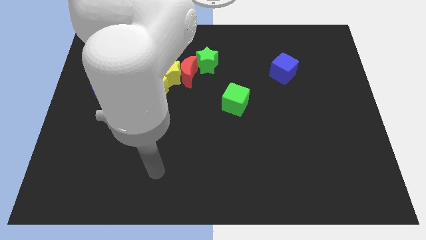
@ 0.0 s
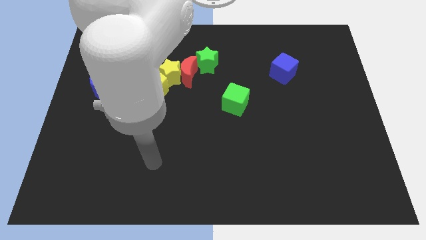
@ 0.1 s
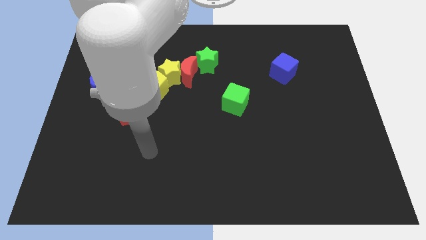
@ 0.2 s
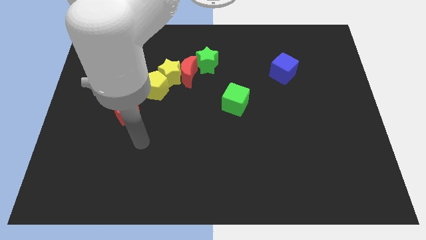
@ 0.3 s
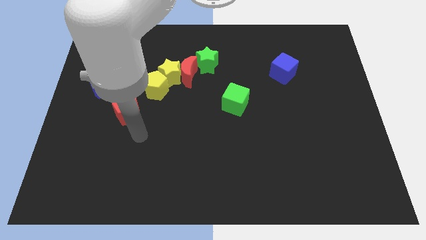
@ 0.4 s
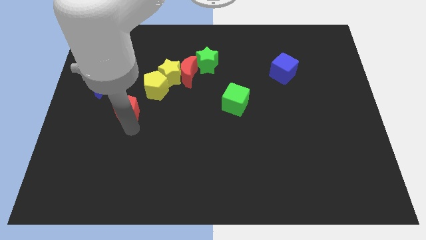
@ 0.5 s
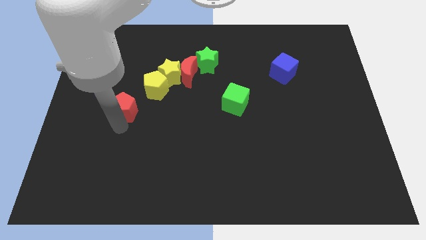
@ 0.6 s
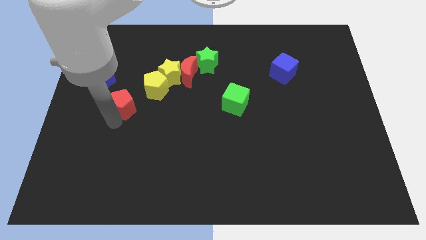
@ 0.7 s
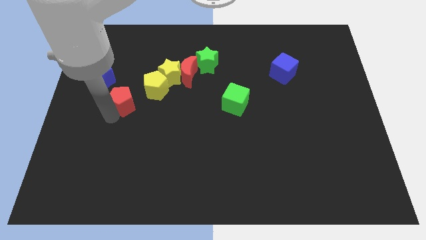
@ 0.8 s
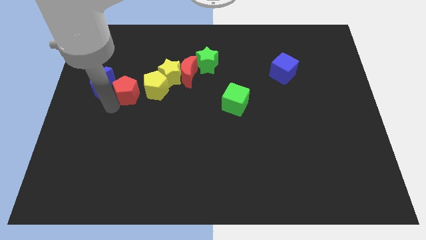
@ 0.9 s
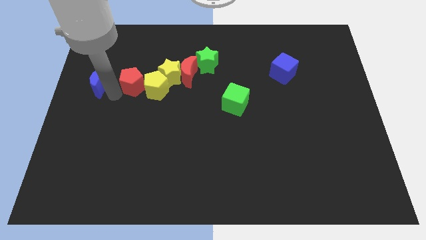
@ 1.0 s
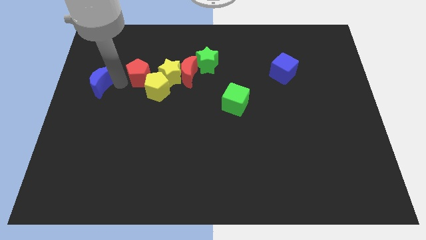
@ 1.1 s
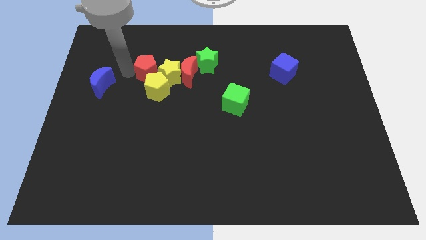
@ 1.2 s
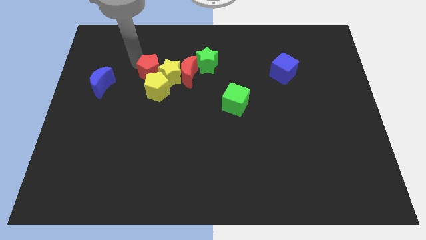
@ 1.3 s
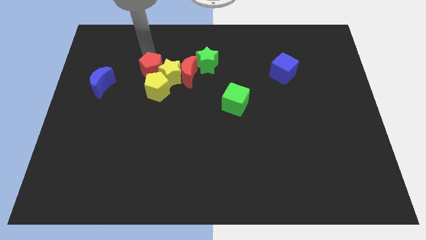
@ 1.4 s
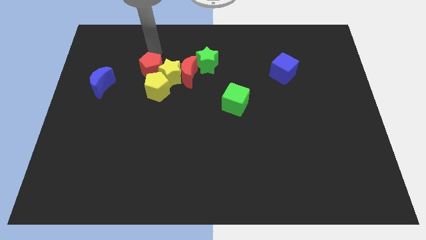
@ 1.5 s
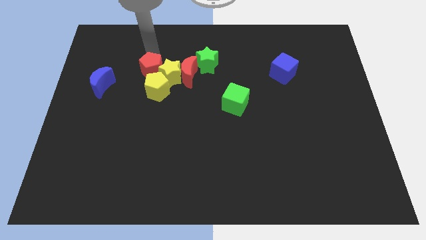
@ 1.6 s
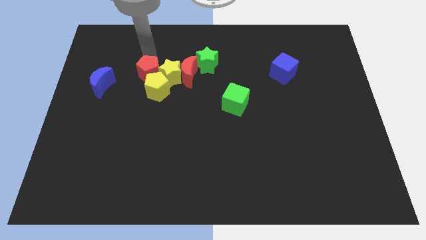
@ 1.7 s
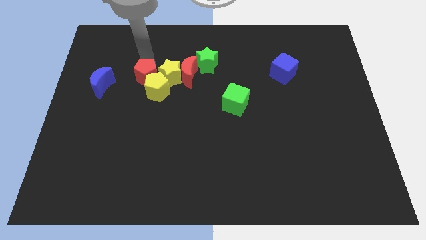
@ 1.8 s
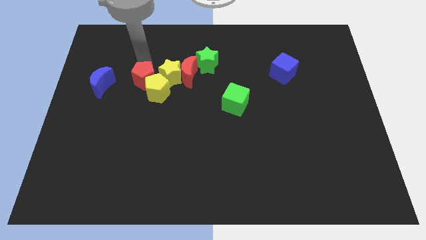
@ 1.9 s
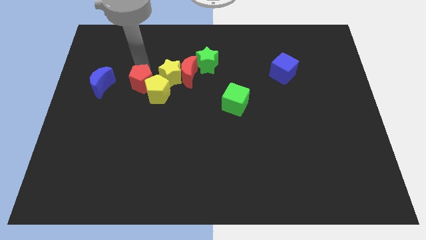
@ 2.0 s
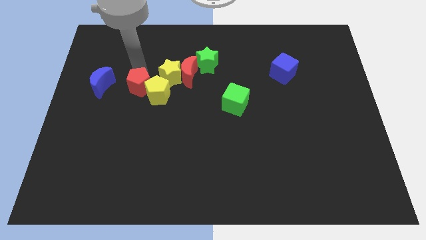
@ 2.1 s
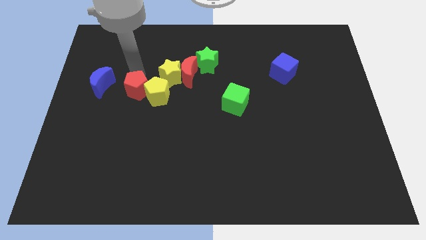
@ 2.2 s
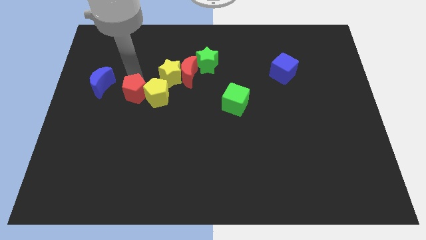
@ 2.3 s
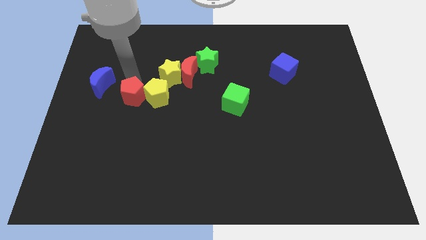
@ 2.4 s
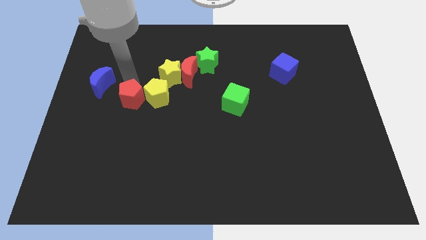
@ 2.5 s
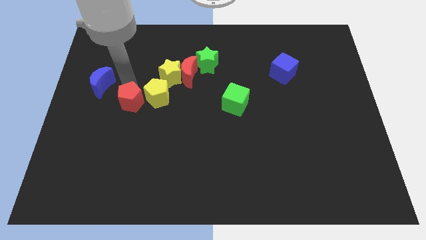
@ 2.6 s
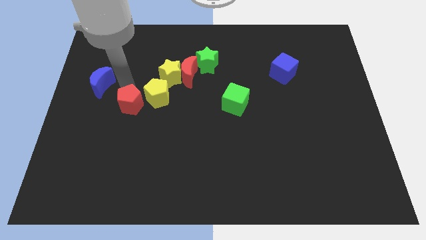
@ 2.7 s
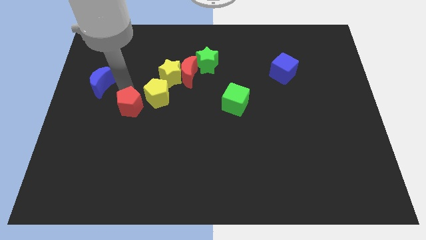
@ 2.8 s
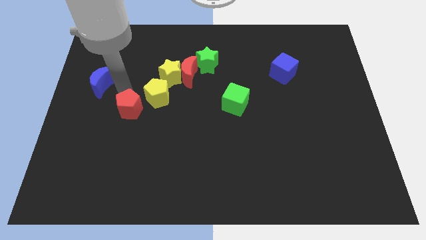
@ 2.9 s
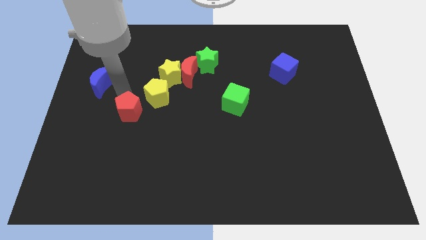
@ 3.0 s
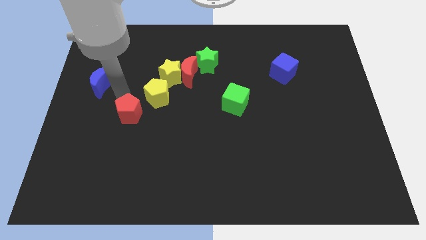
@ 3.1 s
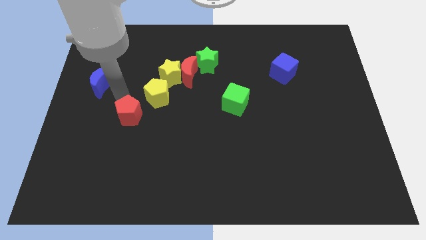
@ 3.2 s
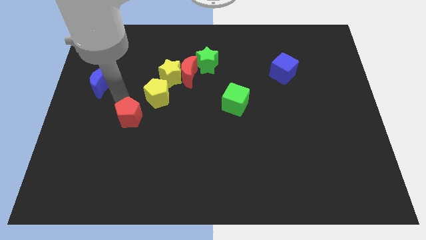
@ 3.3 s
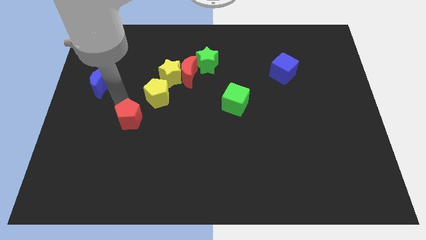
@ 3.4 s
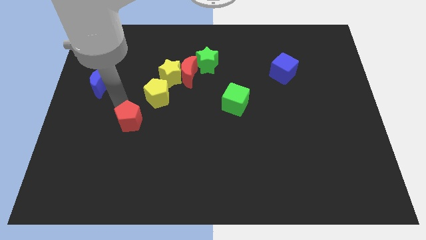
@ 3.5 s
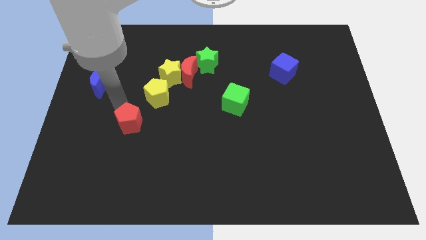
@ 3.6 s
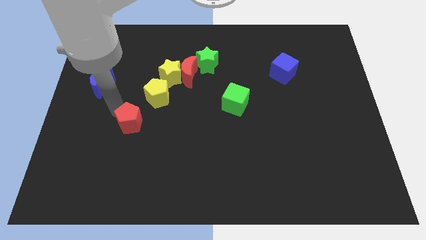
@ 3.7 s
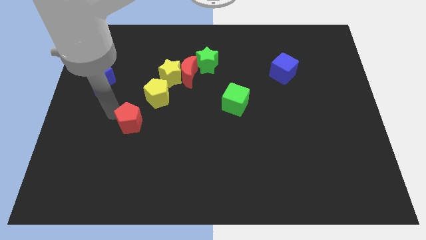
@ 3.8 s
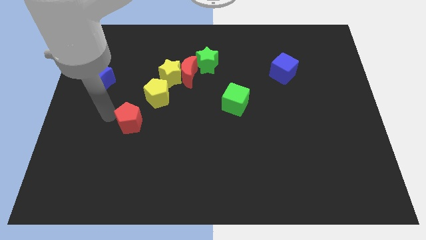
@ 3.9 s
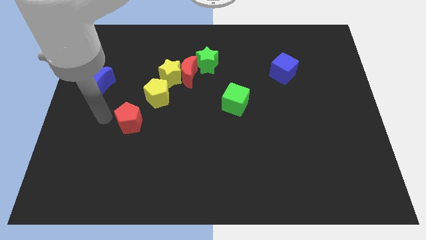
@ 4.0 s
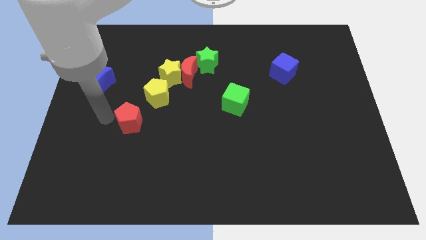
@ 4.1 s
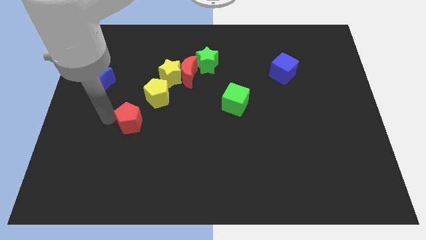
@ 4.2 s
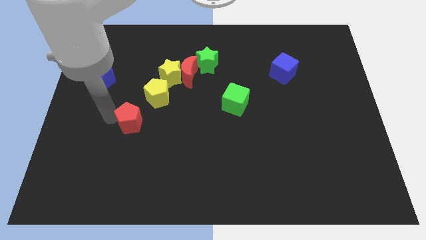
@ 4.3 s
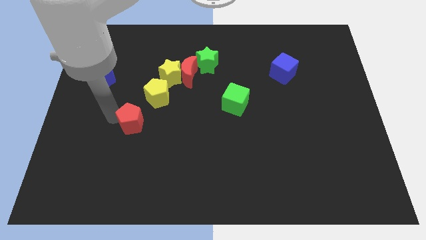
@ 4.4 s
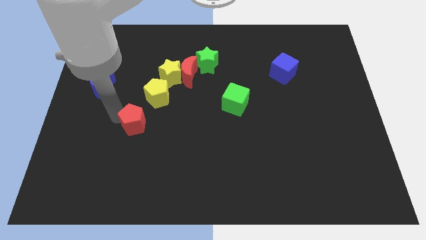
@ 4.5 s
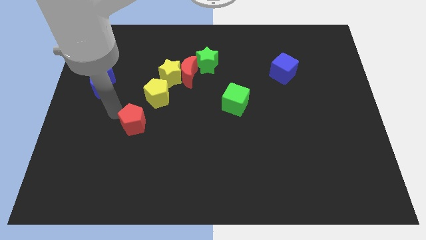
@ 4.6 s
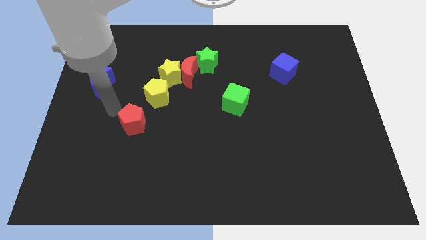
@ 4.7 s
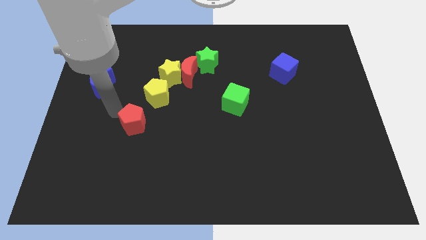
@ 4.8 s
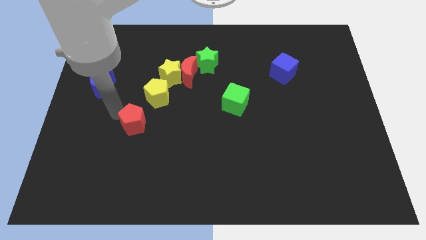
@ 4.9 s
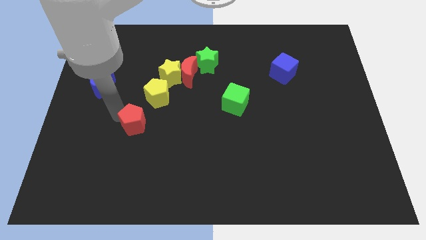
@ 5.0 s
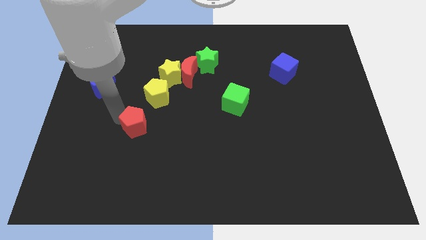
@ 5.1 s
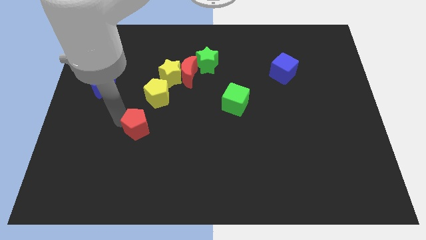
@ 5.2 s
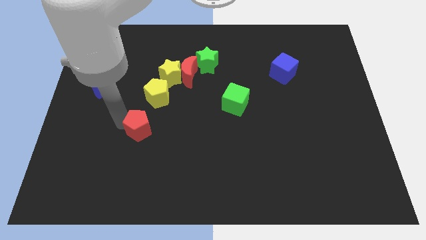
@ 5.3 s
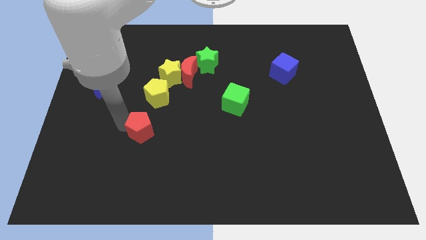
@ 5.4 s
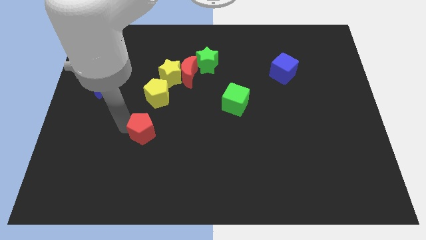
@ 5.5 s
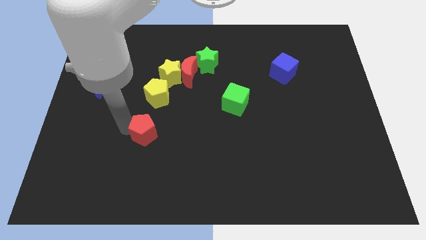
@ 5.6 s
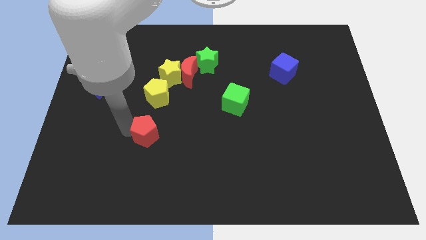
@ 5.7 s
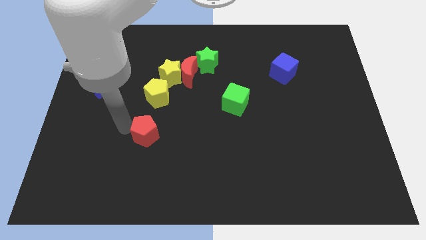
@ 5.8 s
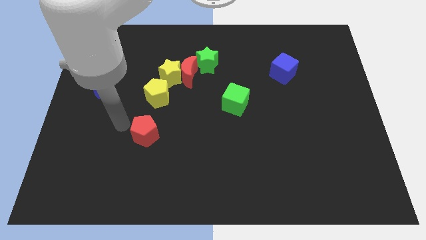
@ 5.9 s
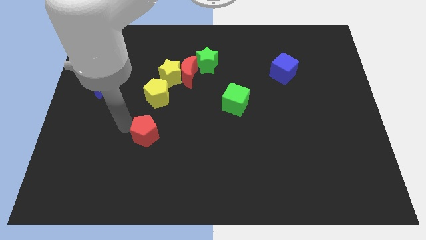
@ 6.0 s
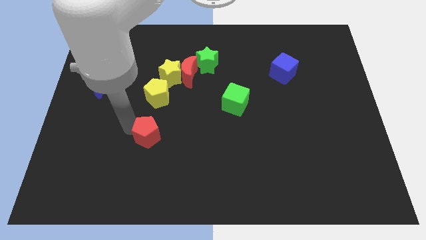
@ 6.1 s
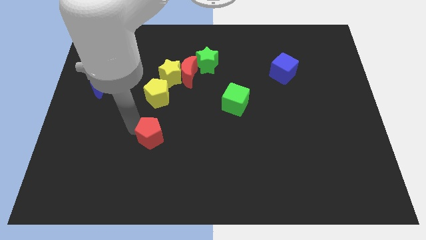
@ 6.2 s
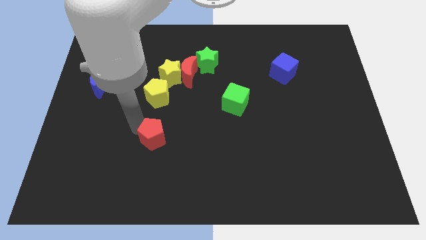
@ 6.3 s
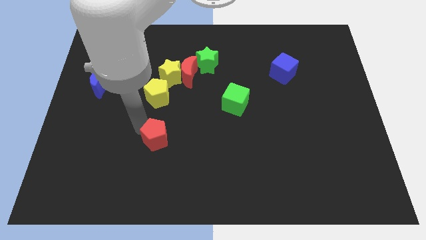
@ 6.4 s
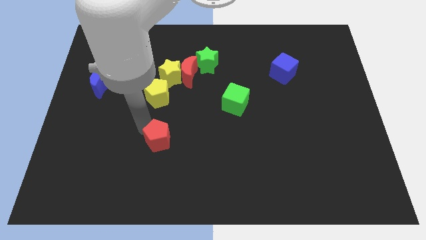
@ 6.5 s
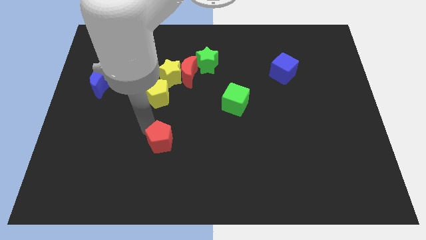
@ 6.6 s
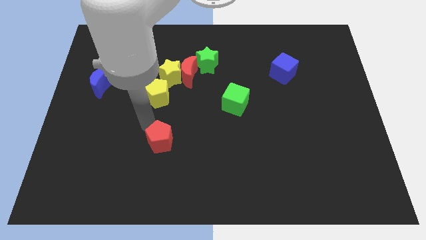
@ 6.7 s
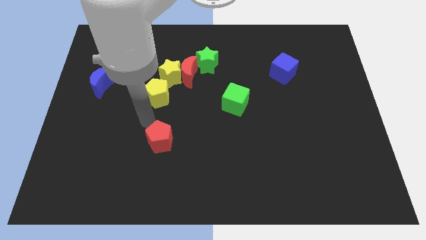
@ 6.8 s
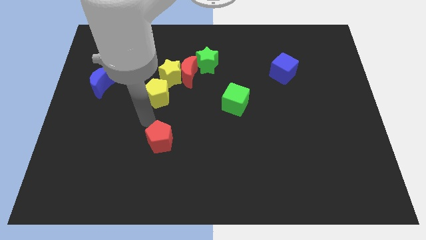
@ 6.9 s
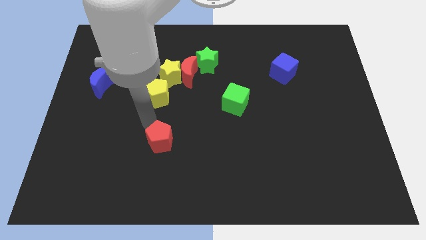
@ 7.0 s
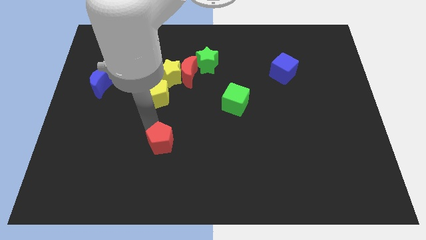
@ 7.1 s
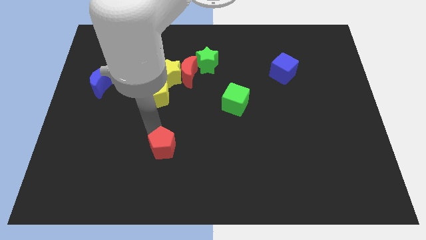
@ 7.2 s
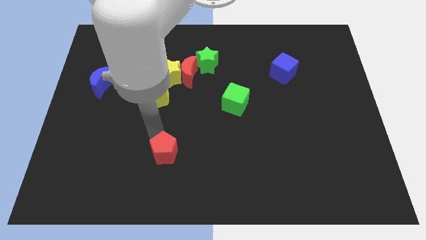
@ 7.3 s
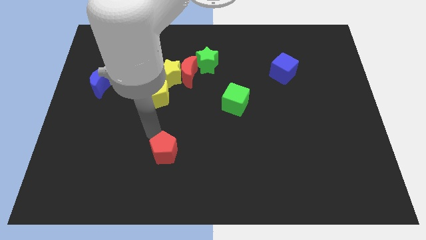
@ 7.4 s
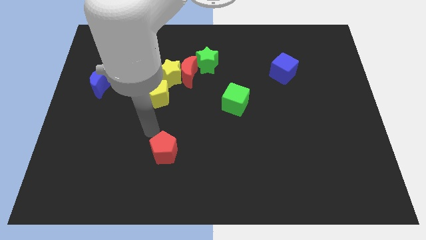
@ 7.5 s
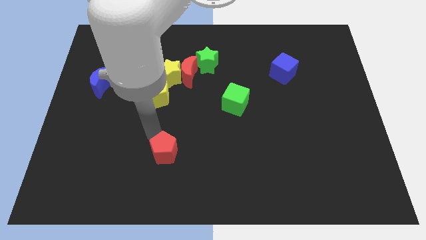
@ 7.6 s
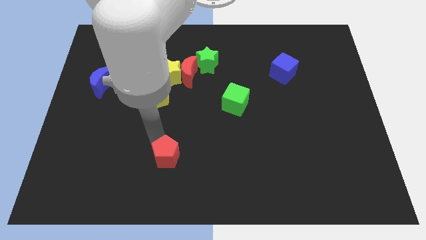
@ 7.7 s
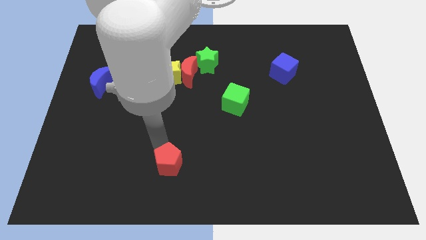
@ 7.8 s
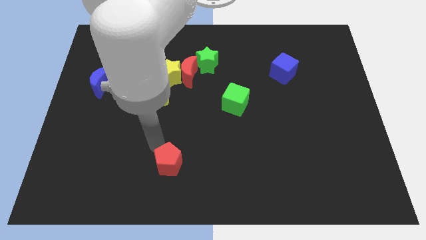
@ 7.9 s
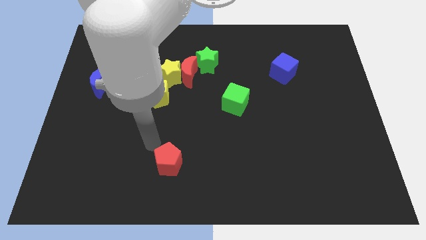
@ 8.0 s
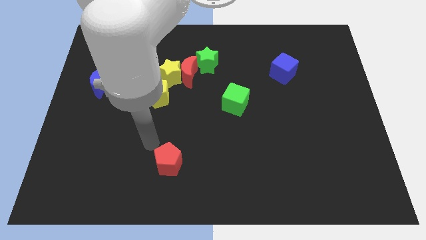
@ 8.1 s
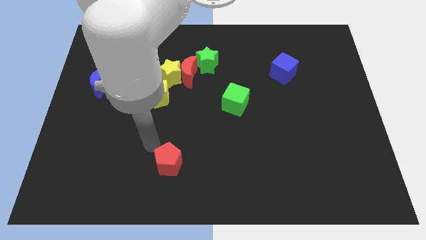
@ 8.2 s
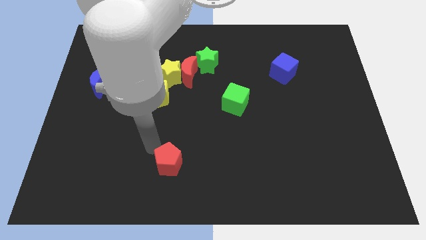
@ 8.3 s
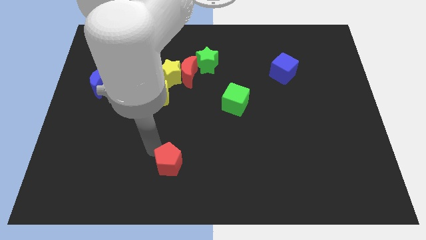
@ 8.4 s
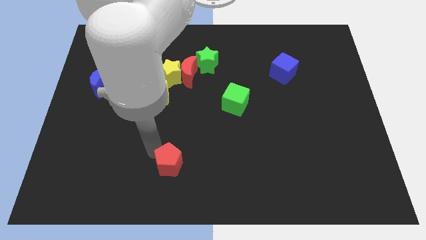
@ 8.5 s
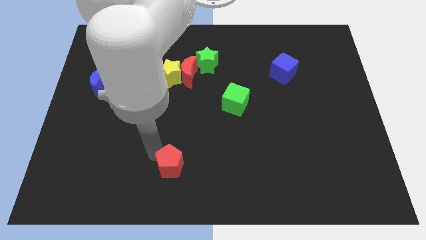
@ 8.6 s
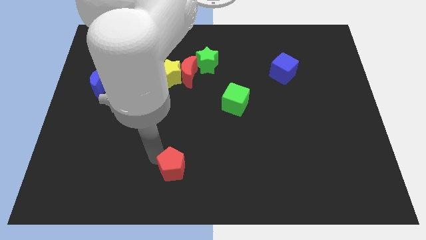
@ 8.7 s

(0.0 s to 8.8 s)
move the red pentagon to the bottom side
